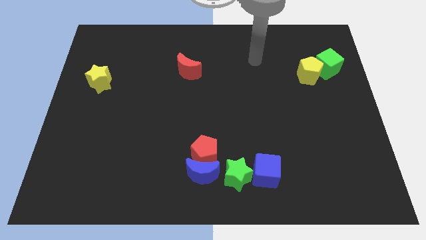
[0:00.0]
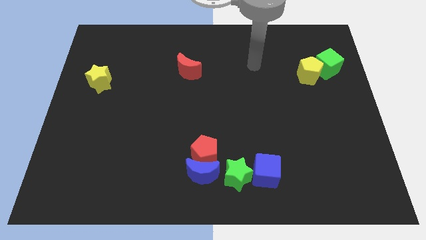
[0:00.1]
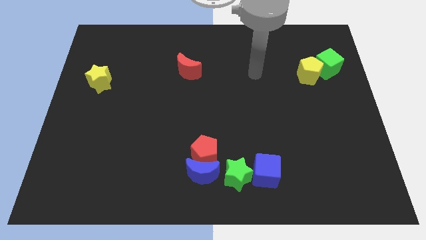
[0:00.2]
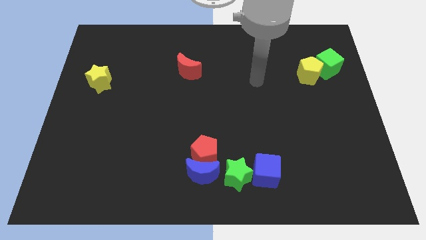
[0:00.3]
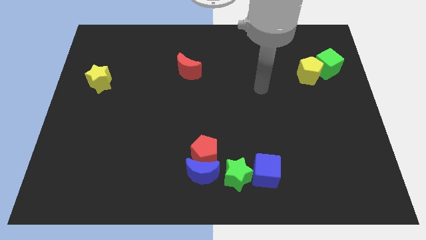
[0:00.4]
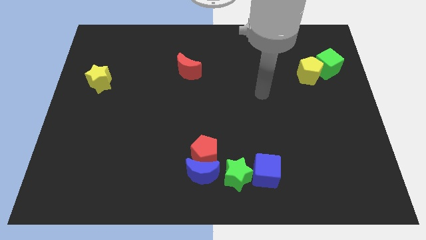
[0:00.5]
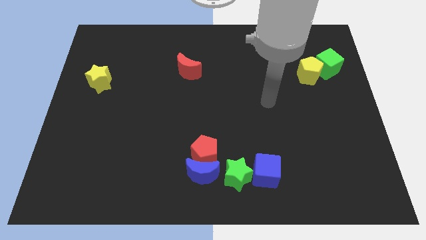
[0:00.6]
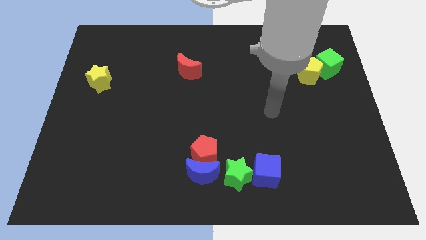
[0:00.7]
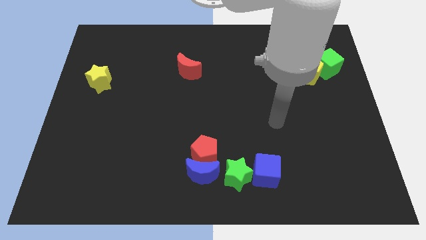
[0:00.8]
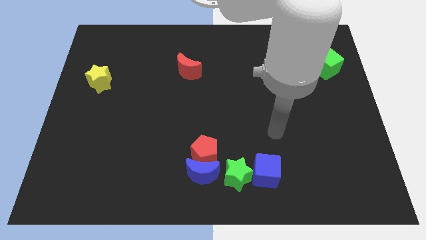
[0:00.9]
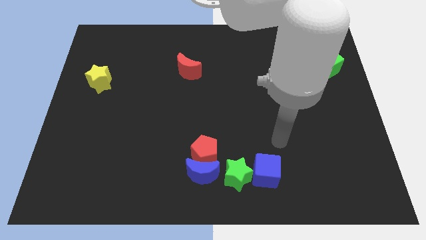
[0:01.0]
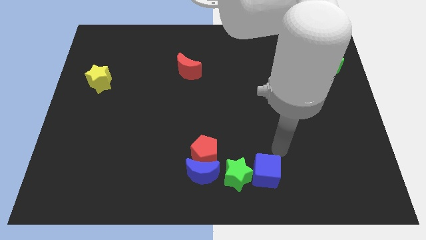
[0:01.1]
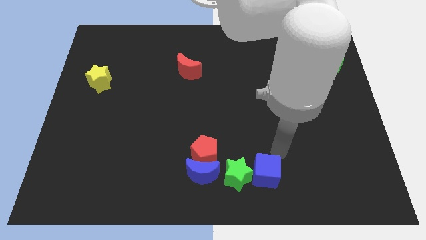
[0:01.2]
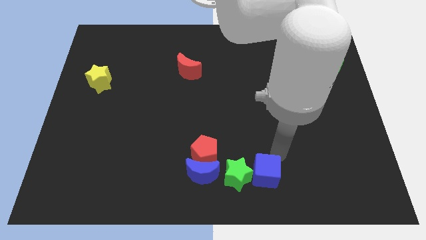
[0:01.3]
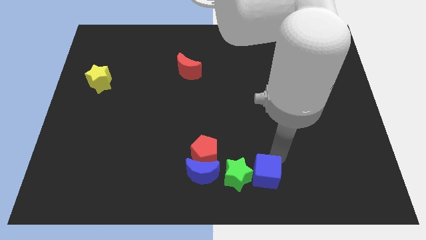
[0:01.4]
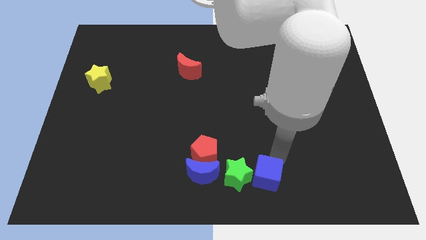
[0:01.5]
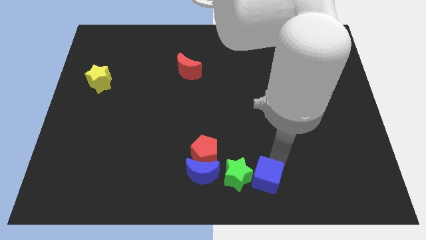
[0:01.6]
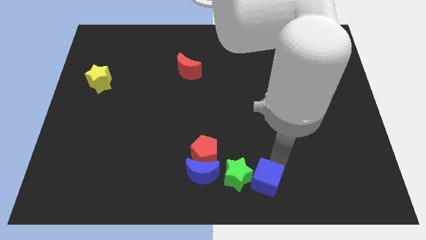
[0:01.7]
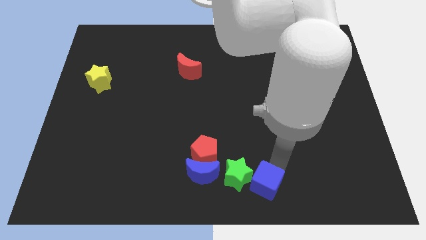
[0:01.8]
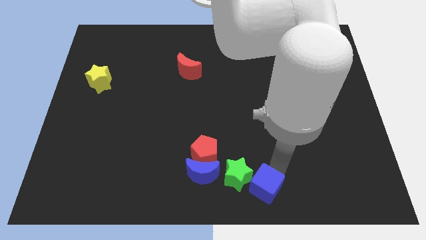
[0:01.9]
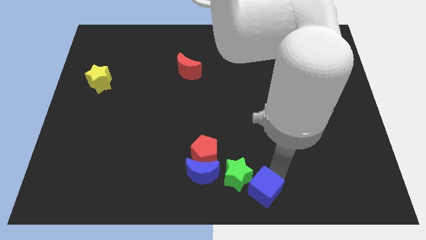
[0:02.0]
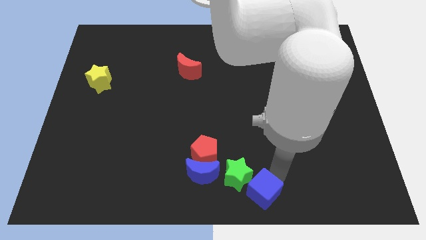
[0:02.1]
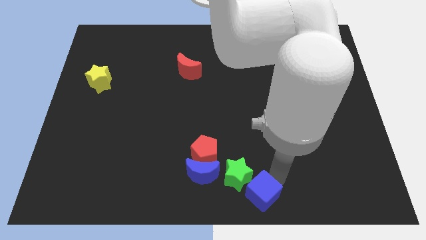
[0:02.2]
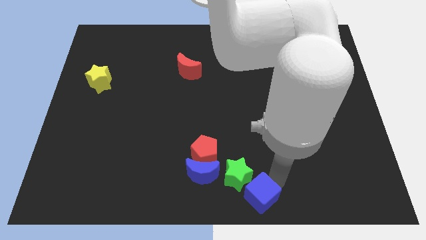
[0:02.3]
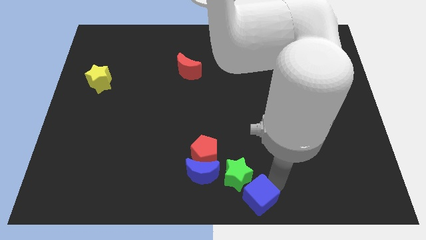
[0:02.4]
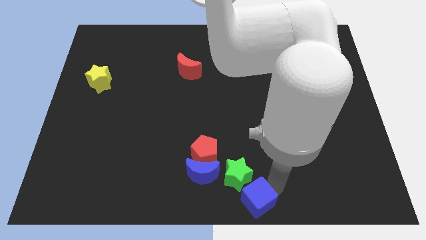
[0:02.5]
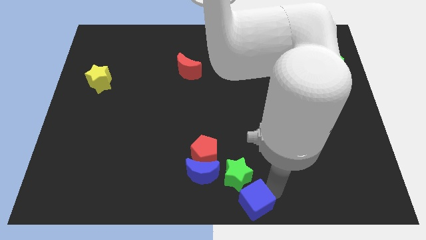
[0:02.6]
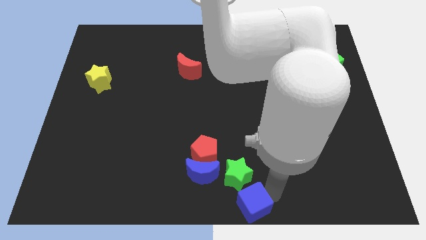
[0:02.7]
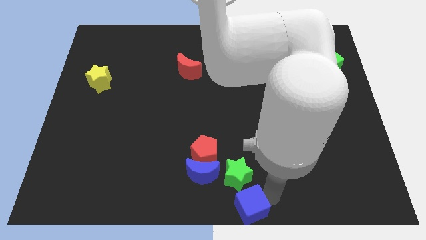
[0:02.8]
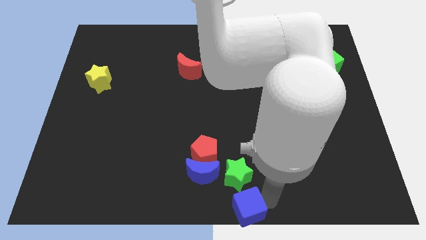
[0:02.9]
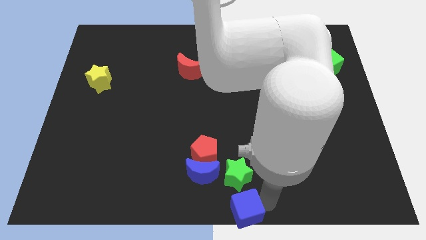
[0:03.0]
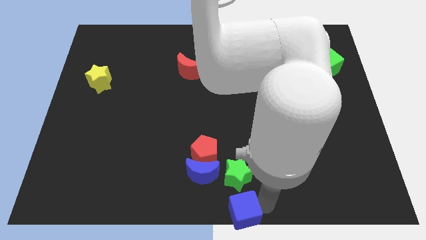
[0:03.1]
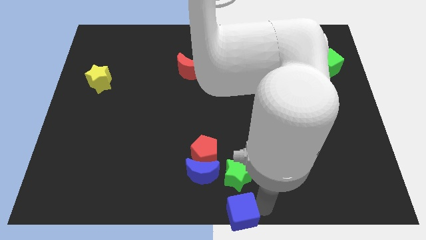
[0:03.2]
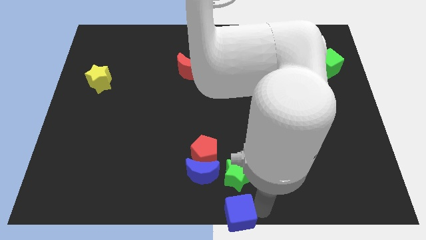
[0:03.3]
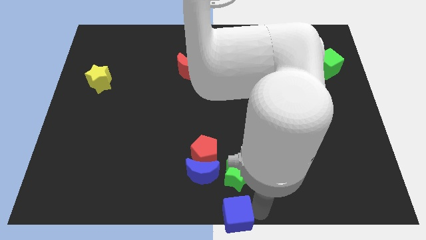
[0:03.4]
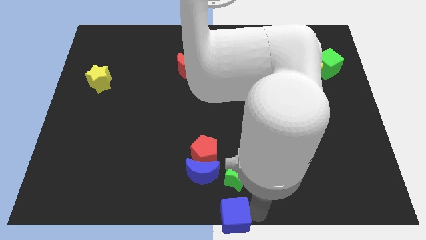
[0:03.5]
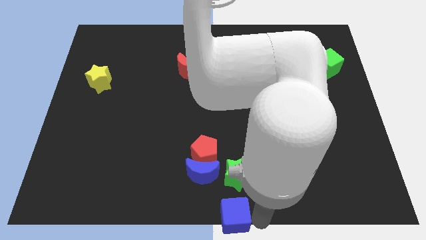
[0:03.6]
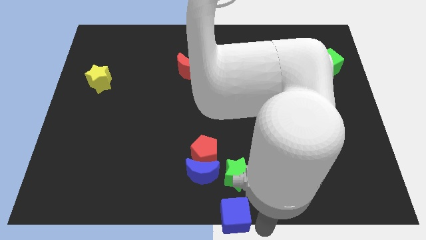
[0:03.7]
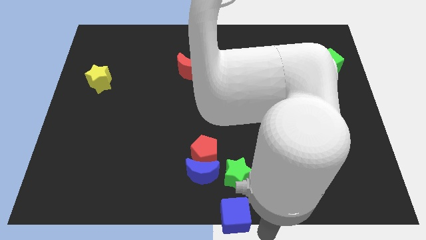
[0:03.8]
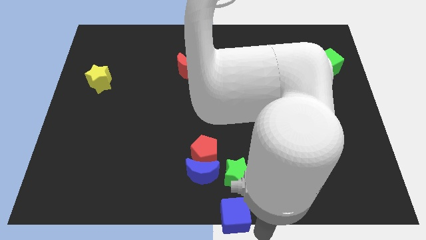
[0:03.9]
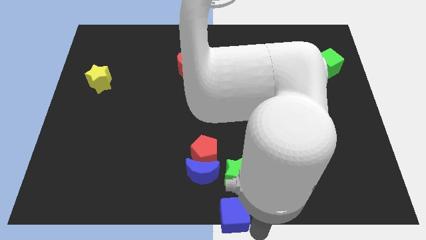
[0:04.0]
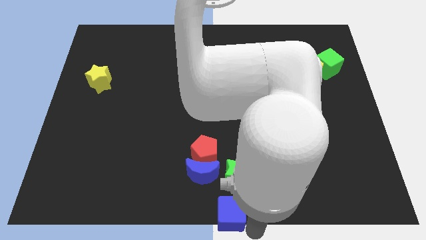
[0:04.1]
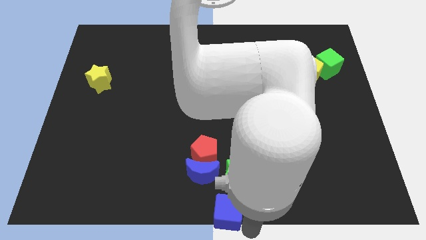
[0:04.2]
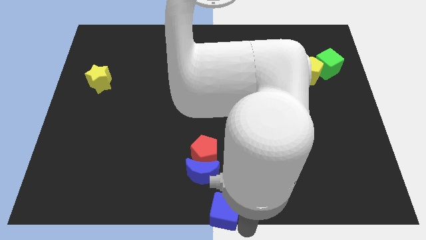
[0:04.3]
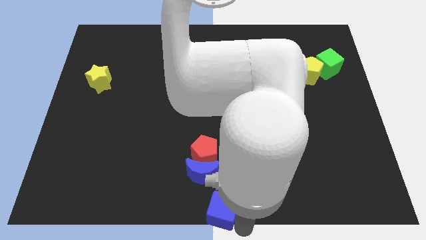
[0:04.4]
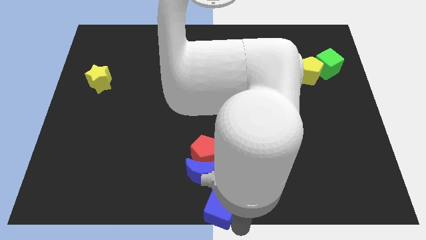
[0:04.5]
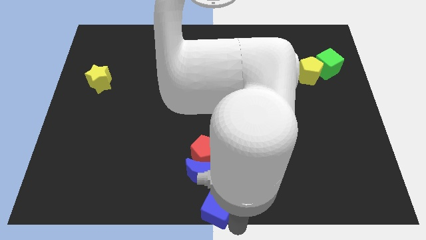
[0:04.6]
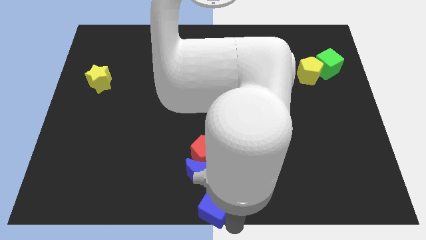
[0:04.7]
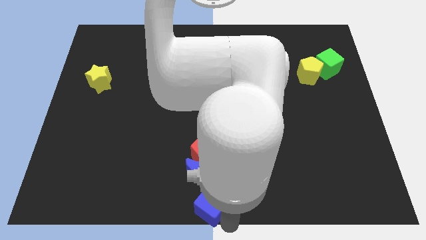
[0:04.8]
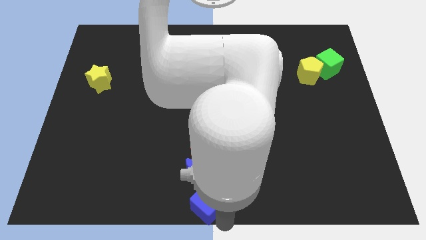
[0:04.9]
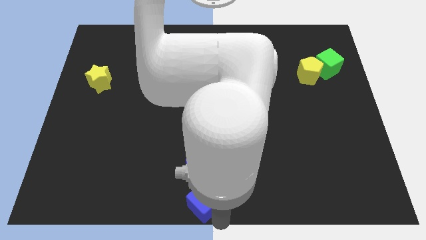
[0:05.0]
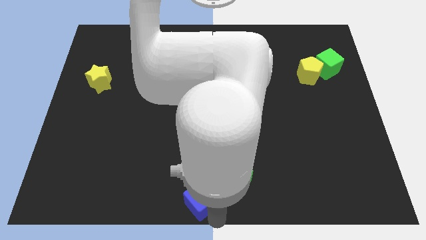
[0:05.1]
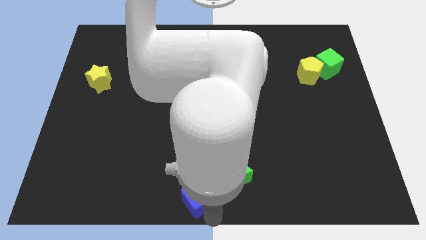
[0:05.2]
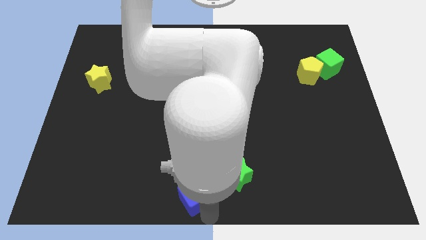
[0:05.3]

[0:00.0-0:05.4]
push the blue cube left of the green star

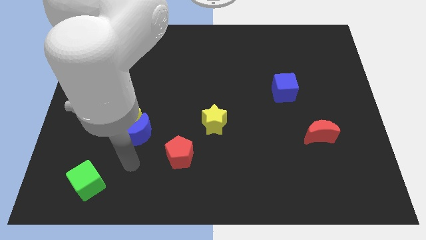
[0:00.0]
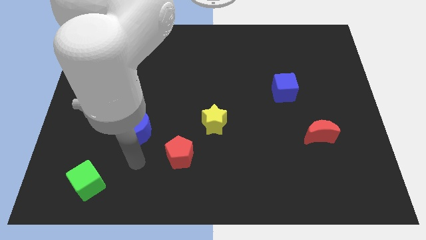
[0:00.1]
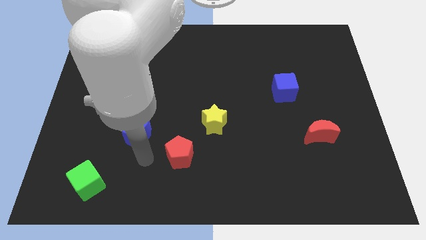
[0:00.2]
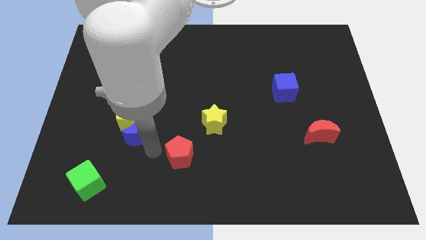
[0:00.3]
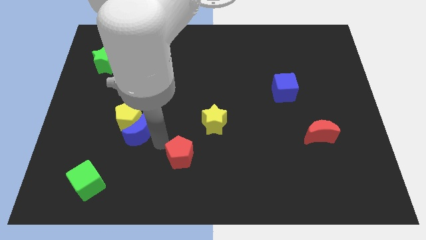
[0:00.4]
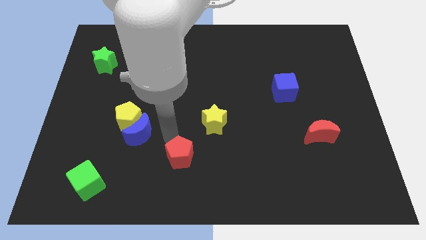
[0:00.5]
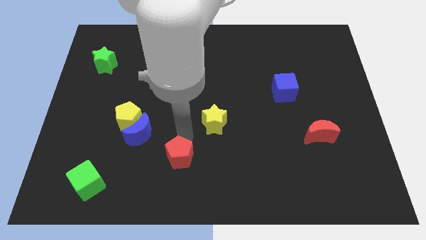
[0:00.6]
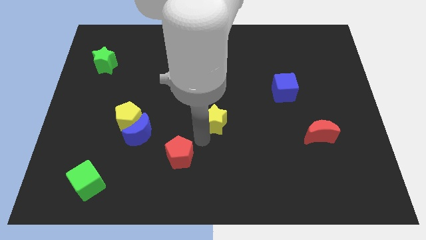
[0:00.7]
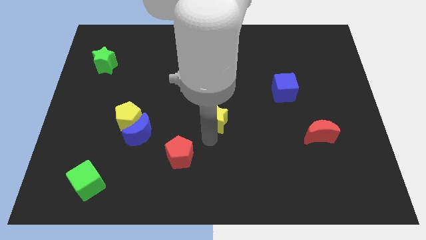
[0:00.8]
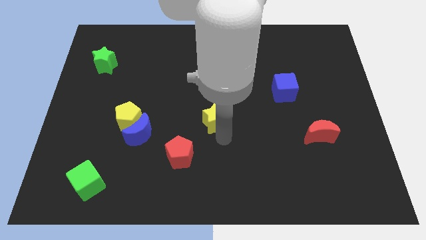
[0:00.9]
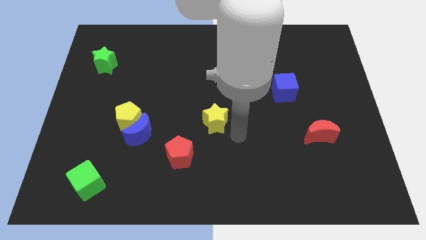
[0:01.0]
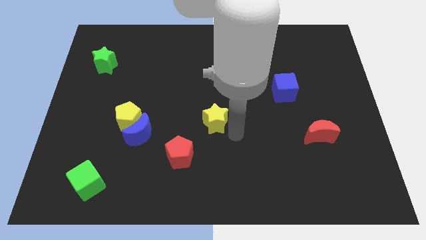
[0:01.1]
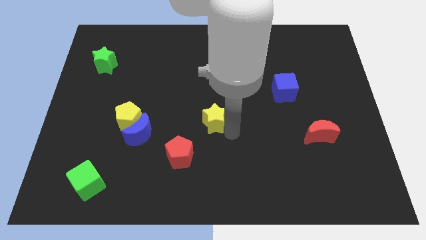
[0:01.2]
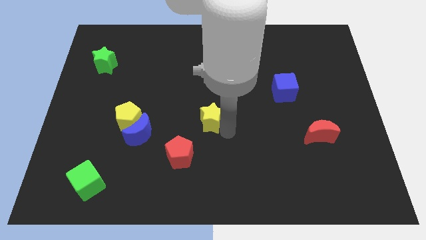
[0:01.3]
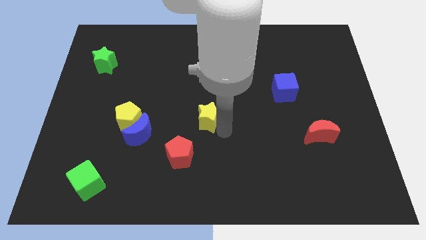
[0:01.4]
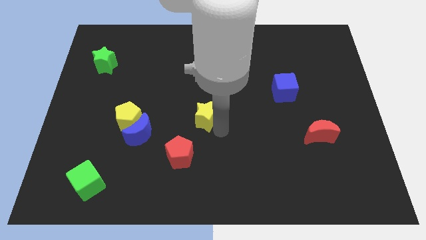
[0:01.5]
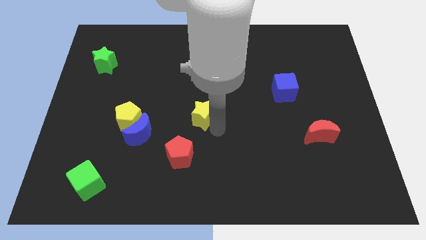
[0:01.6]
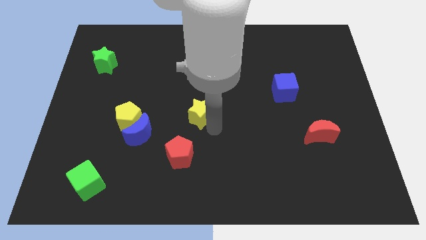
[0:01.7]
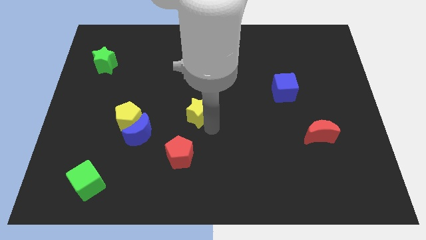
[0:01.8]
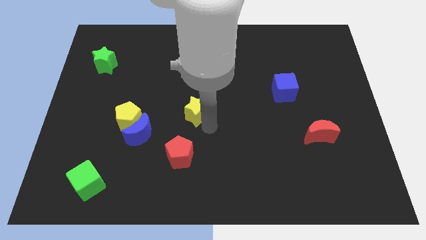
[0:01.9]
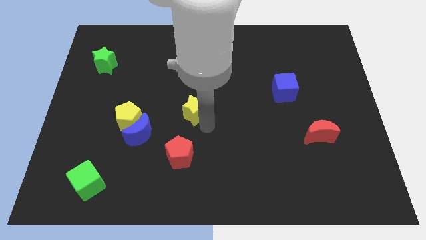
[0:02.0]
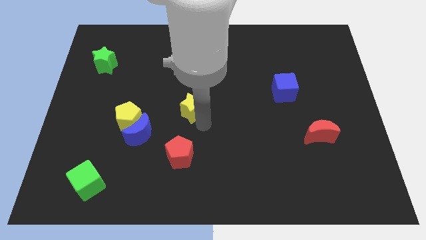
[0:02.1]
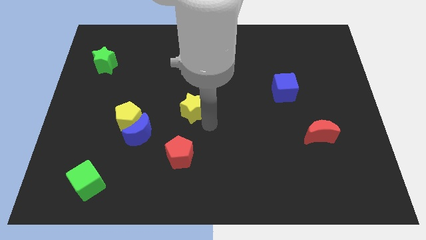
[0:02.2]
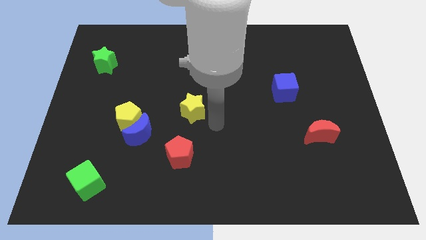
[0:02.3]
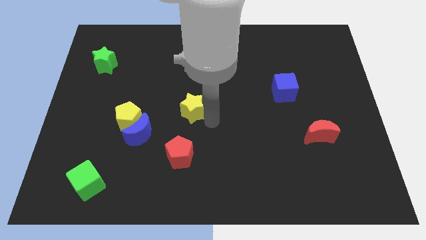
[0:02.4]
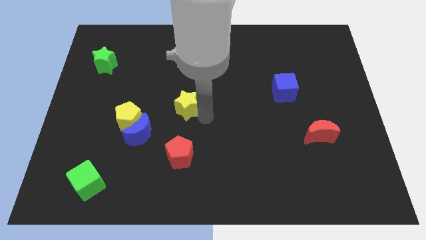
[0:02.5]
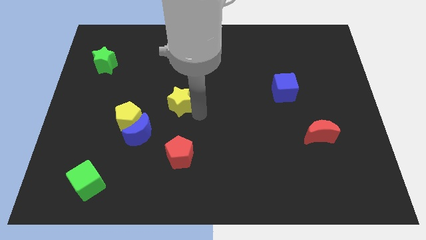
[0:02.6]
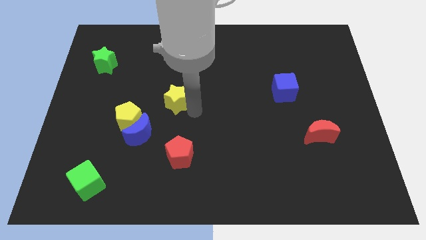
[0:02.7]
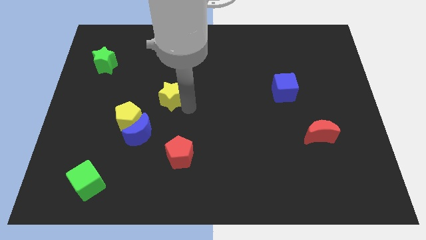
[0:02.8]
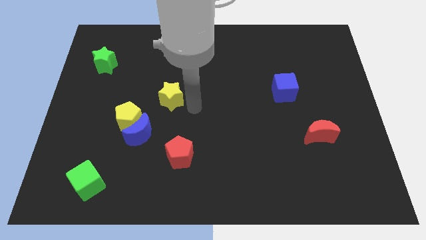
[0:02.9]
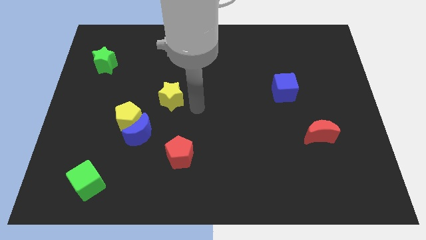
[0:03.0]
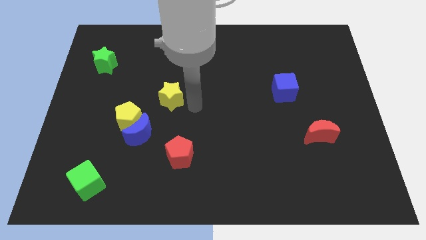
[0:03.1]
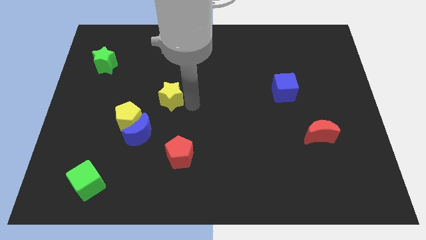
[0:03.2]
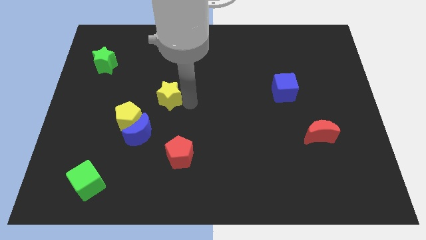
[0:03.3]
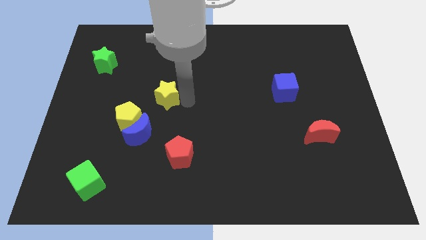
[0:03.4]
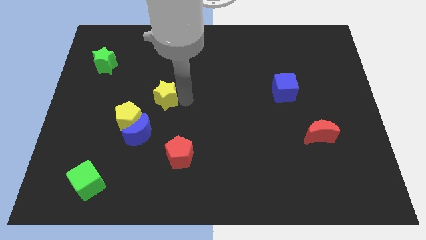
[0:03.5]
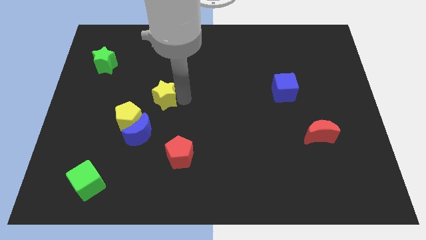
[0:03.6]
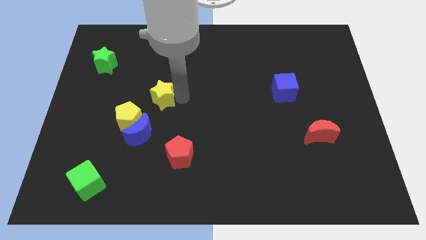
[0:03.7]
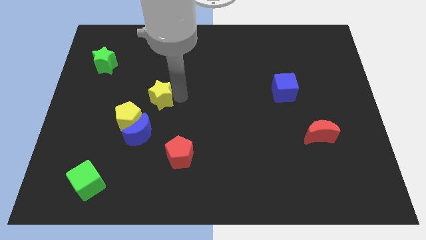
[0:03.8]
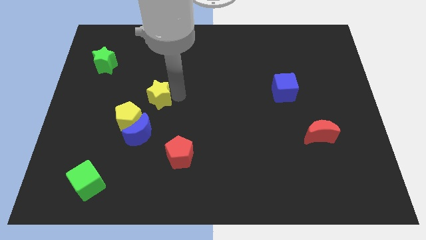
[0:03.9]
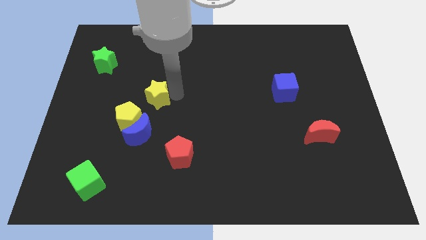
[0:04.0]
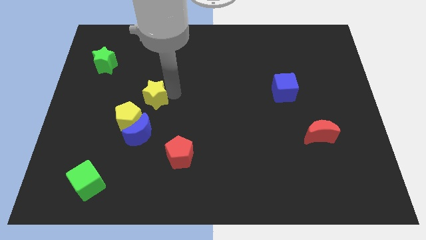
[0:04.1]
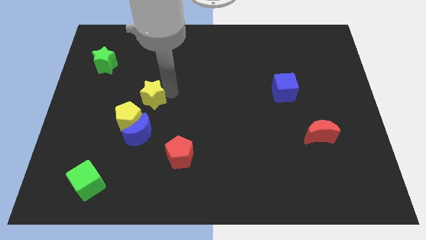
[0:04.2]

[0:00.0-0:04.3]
move the yellow star to the top of the yellow pentagon
